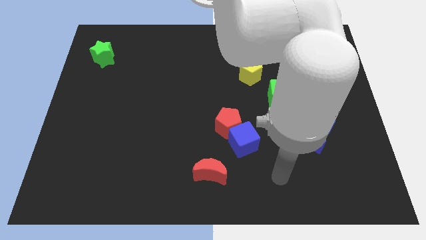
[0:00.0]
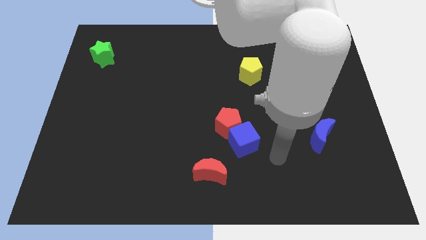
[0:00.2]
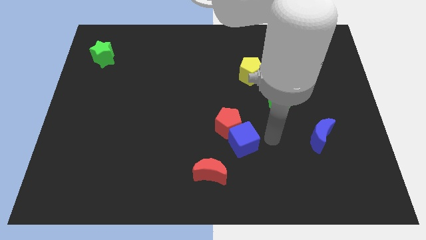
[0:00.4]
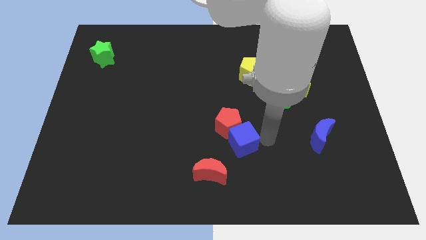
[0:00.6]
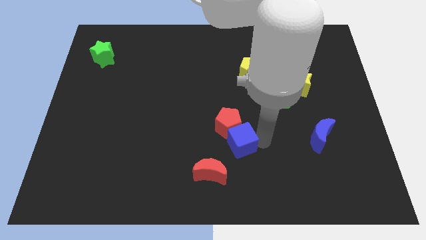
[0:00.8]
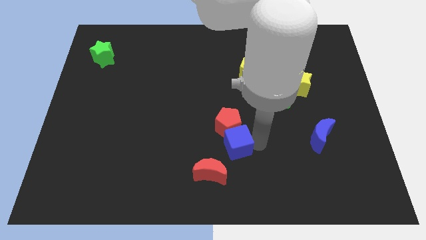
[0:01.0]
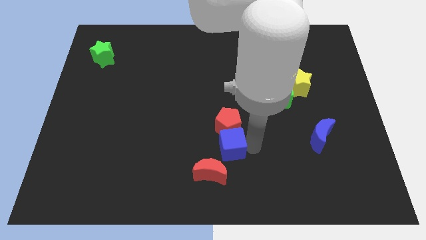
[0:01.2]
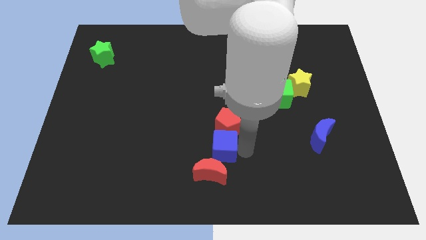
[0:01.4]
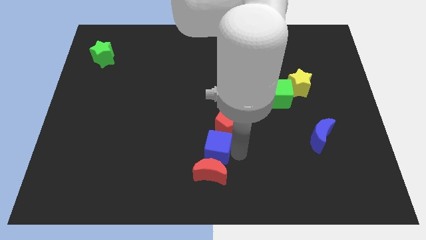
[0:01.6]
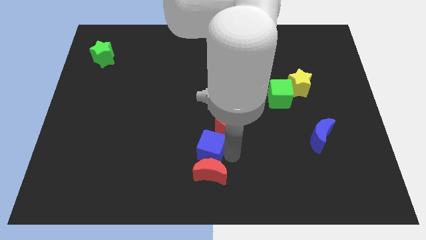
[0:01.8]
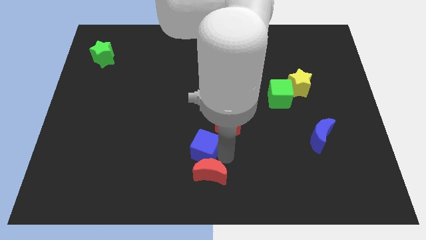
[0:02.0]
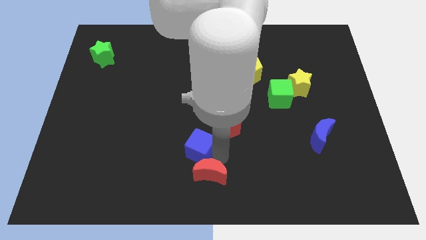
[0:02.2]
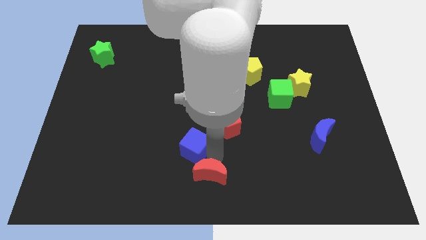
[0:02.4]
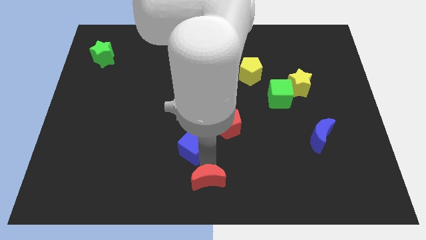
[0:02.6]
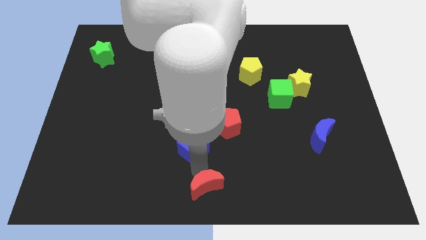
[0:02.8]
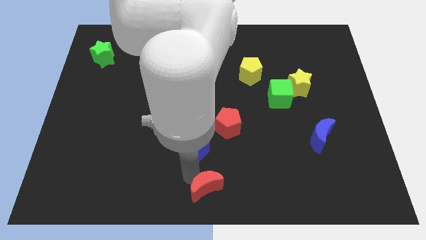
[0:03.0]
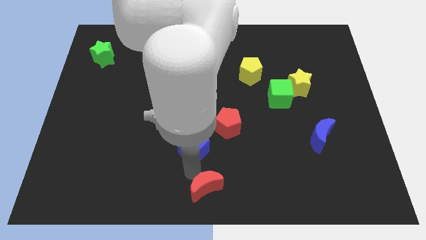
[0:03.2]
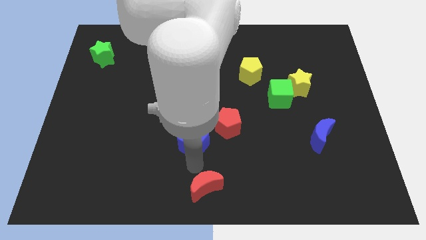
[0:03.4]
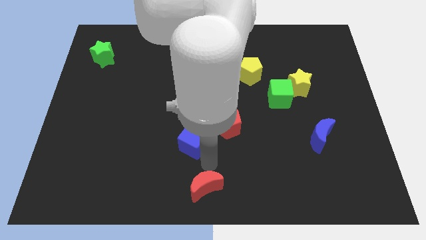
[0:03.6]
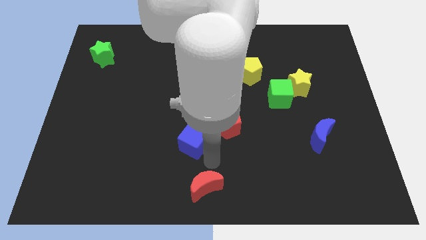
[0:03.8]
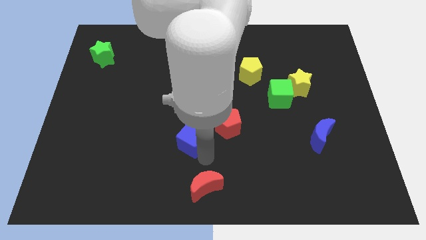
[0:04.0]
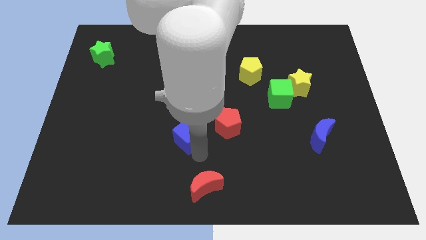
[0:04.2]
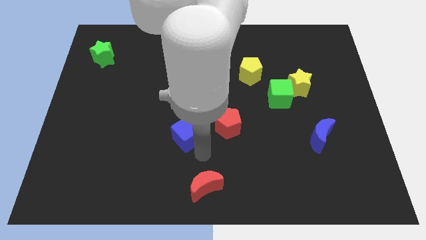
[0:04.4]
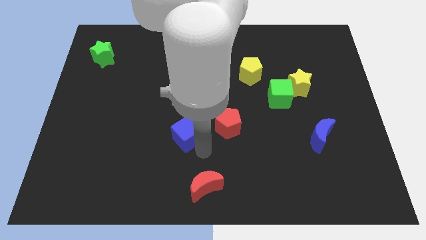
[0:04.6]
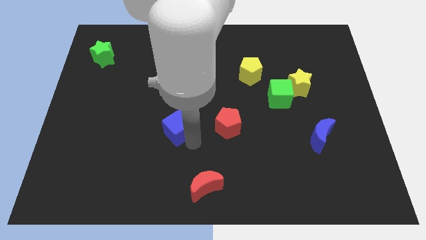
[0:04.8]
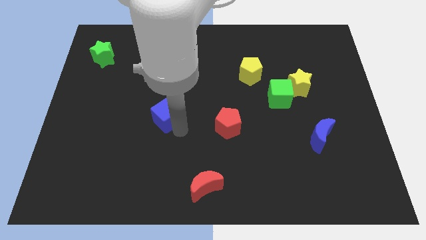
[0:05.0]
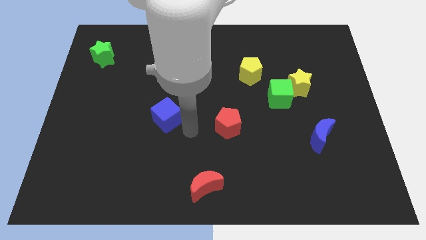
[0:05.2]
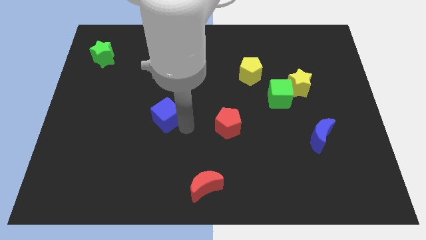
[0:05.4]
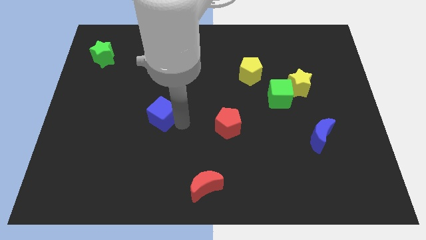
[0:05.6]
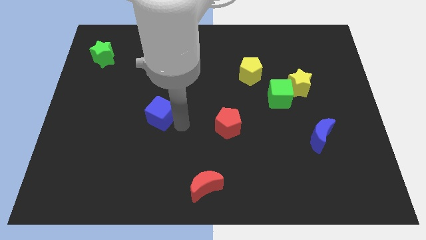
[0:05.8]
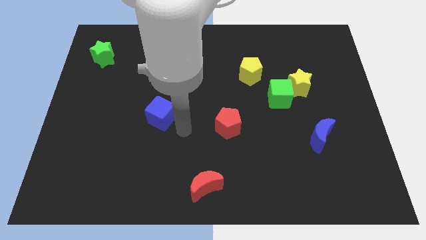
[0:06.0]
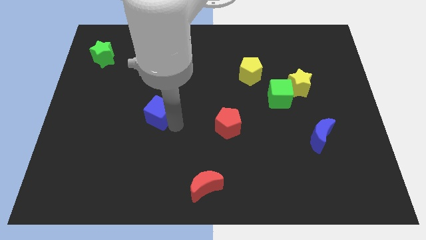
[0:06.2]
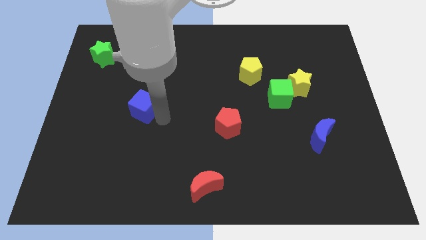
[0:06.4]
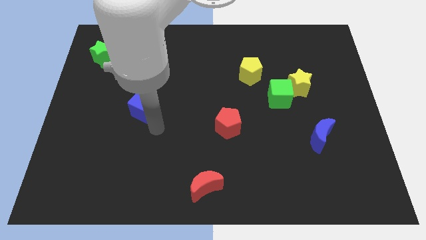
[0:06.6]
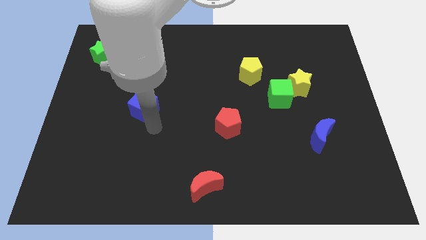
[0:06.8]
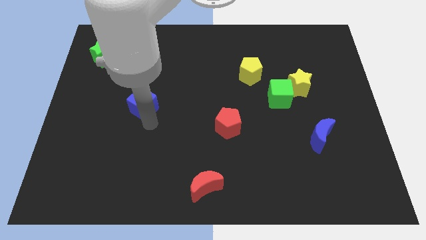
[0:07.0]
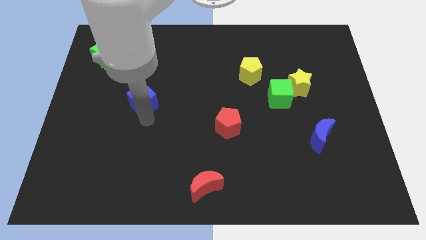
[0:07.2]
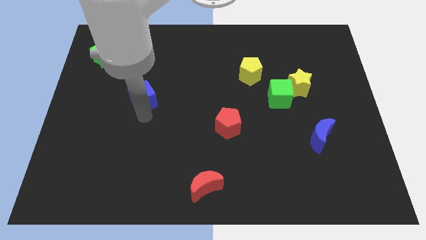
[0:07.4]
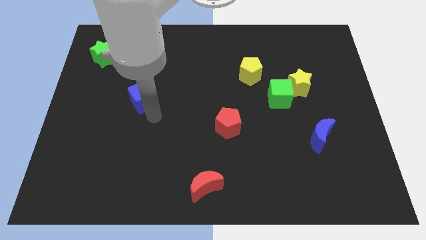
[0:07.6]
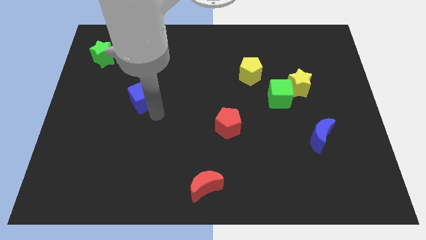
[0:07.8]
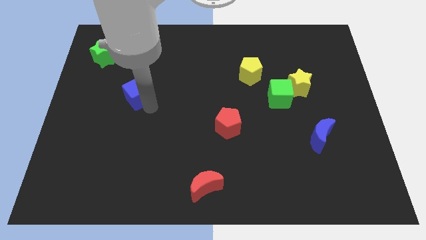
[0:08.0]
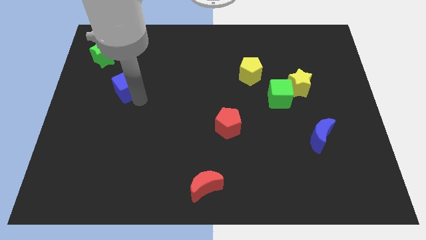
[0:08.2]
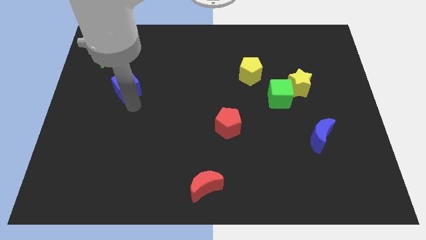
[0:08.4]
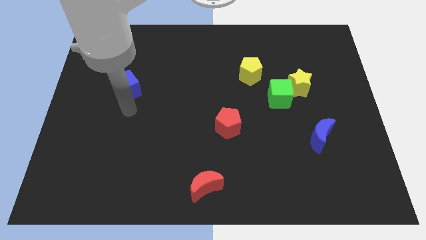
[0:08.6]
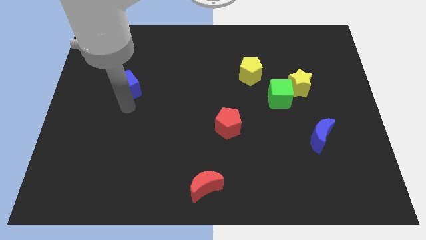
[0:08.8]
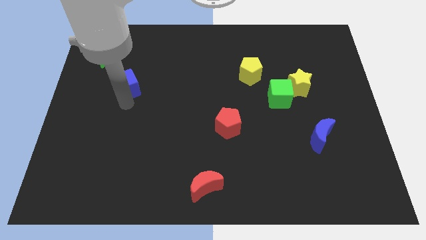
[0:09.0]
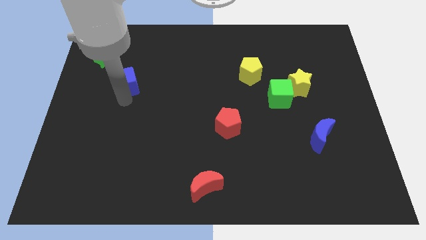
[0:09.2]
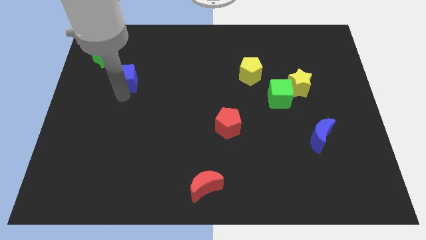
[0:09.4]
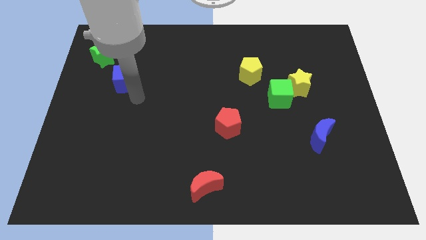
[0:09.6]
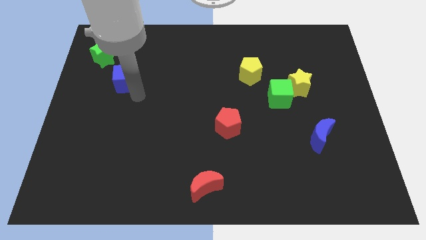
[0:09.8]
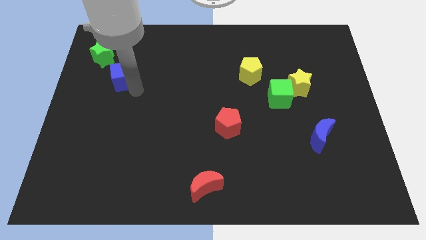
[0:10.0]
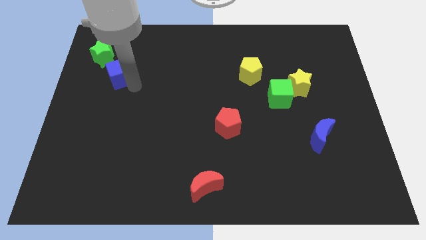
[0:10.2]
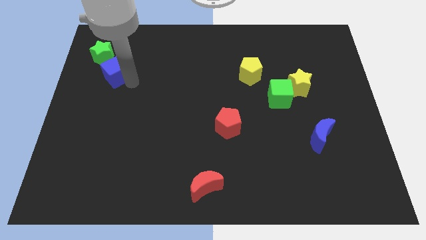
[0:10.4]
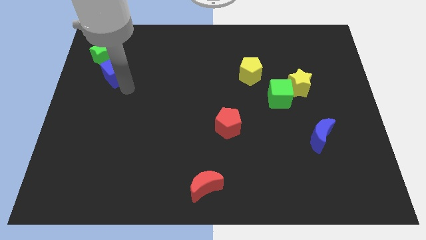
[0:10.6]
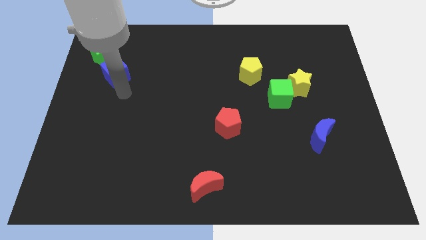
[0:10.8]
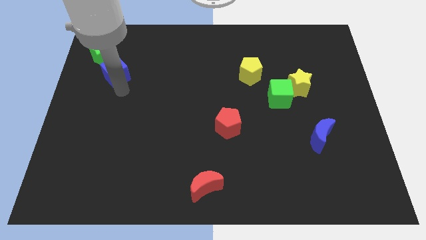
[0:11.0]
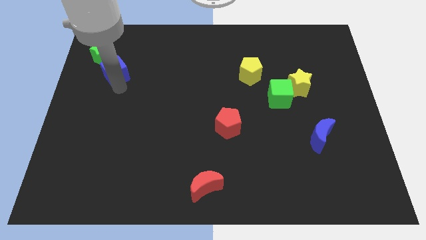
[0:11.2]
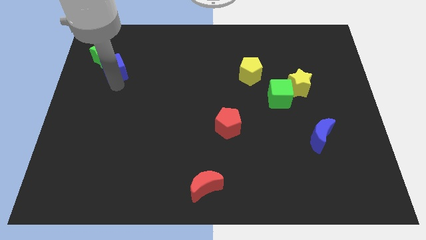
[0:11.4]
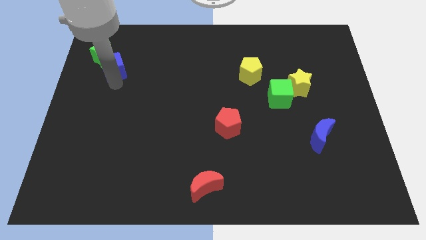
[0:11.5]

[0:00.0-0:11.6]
move the blue cube towards the green star

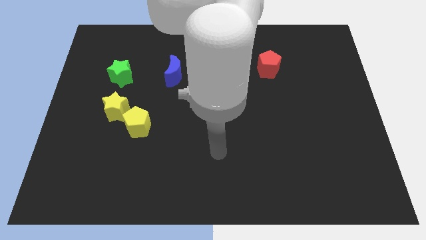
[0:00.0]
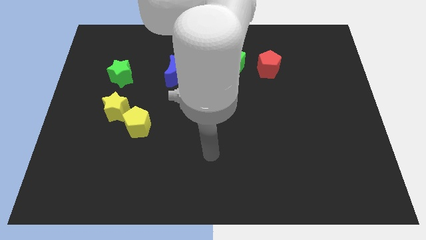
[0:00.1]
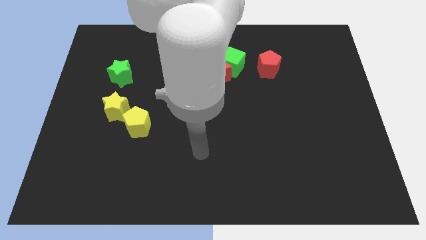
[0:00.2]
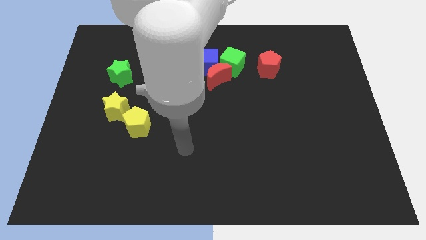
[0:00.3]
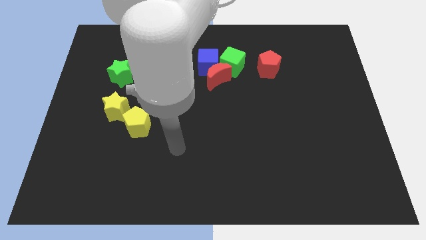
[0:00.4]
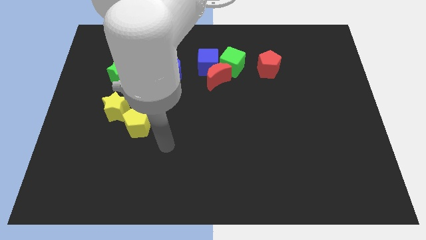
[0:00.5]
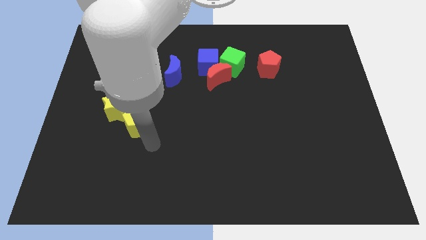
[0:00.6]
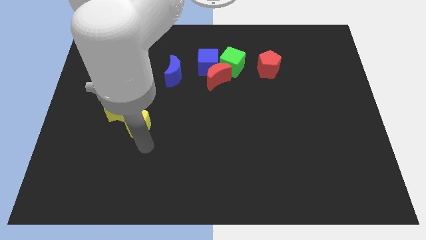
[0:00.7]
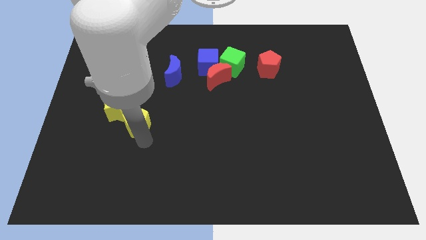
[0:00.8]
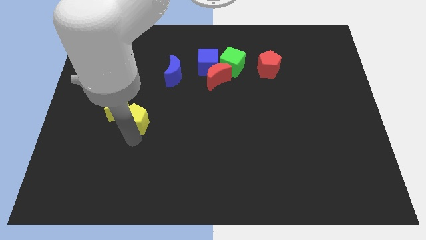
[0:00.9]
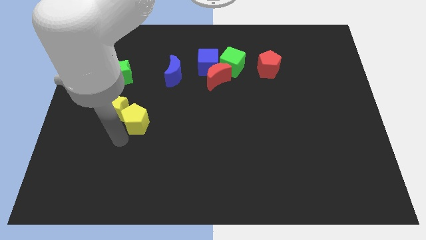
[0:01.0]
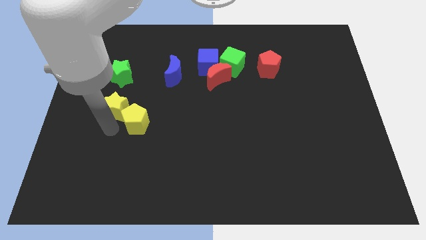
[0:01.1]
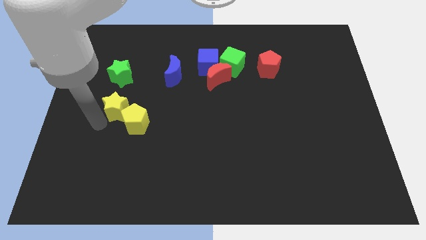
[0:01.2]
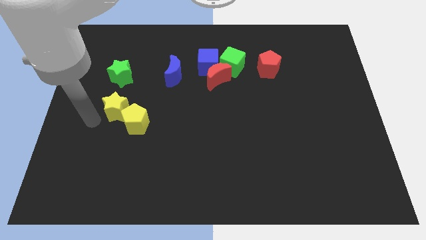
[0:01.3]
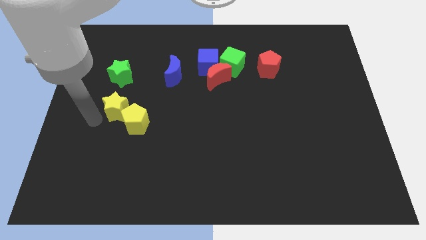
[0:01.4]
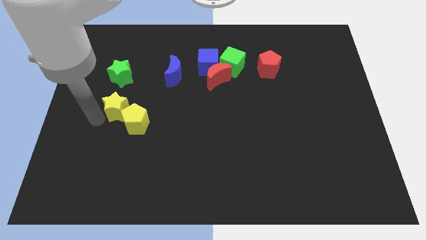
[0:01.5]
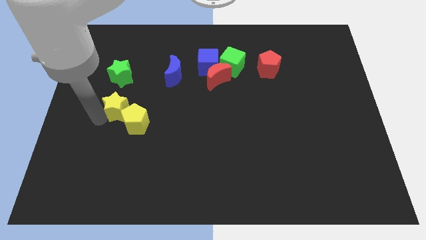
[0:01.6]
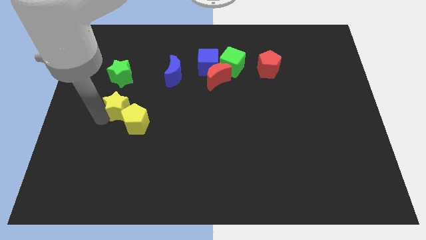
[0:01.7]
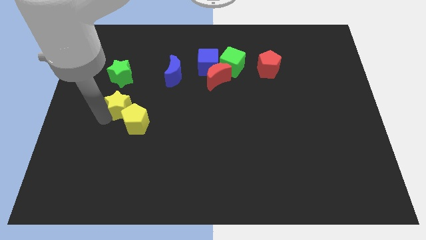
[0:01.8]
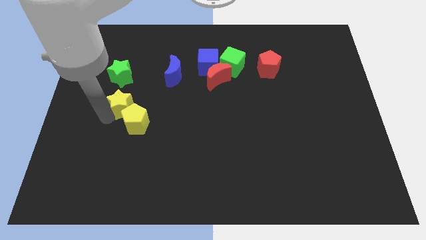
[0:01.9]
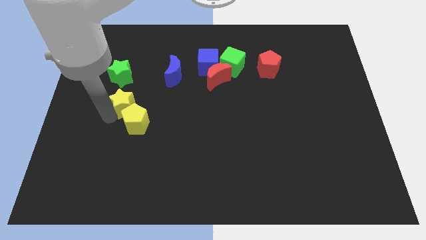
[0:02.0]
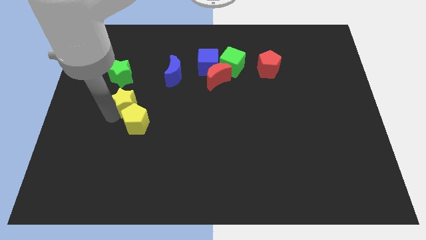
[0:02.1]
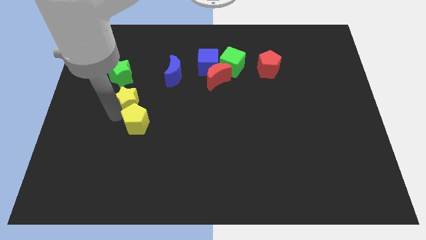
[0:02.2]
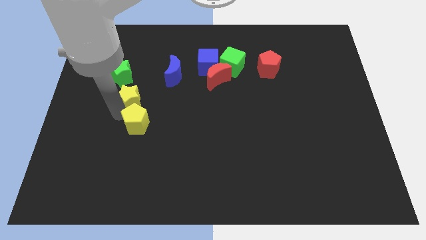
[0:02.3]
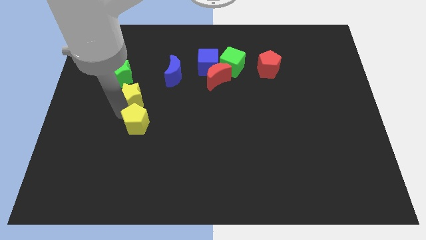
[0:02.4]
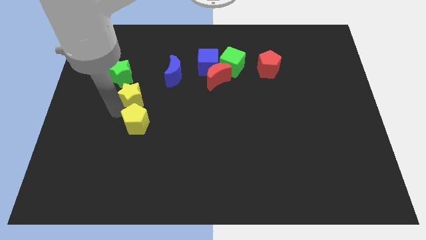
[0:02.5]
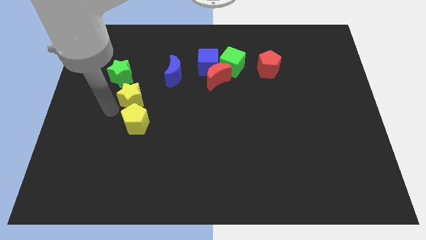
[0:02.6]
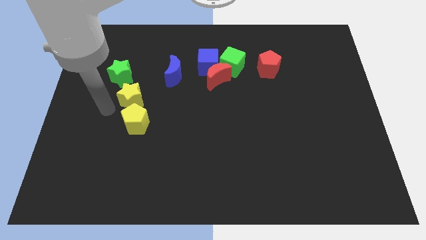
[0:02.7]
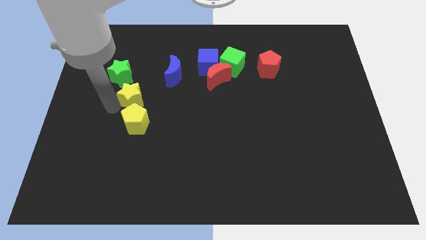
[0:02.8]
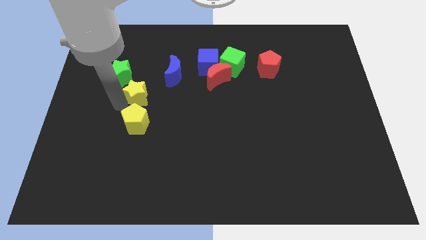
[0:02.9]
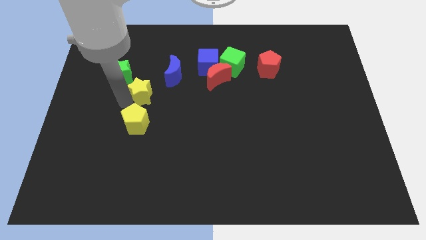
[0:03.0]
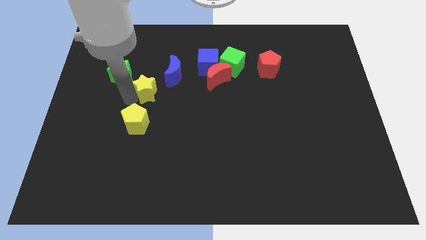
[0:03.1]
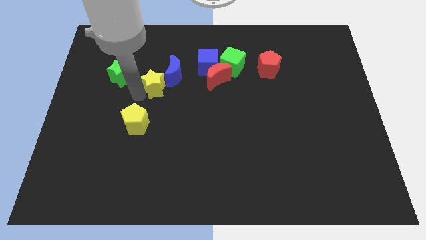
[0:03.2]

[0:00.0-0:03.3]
put the yellow star towards the blue moon
